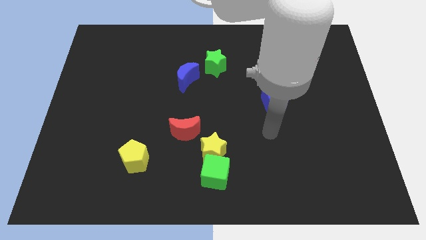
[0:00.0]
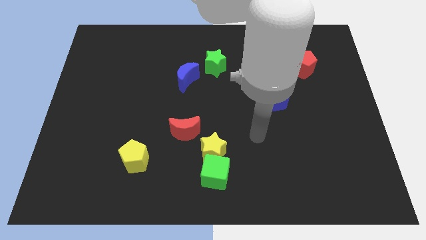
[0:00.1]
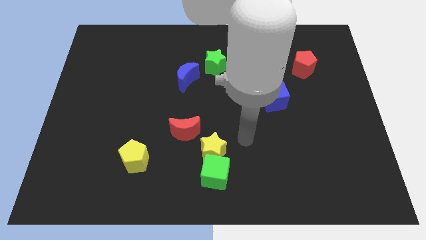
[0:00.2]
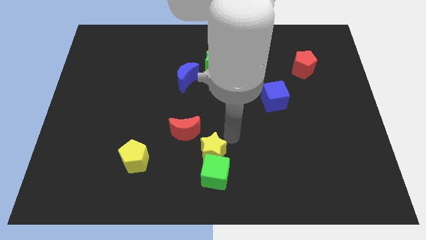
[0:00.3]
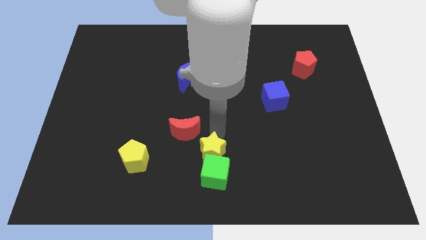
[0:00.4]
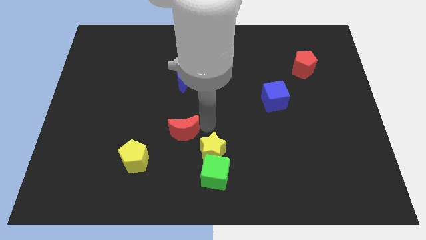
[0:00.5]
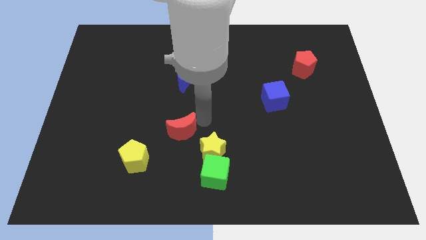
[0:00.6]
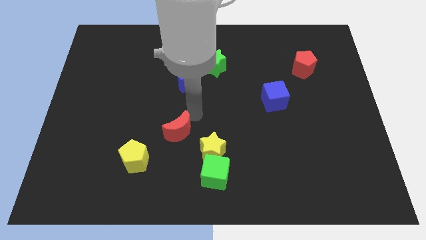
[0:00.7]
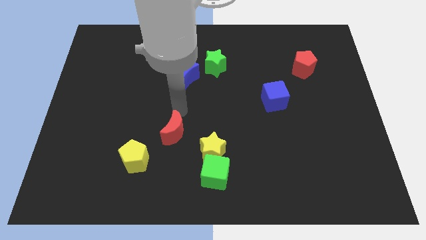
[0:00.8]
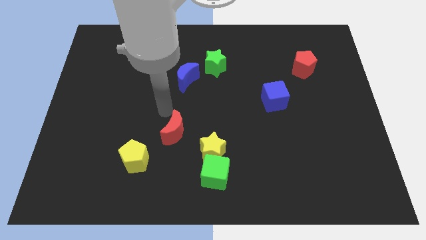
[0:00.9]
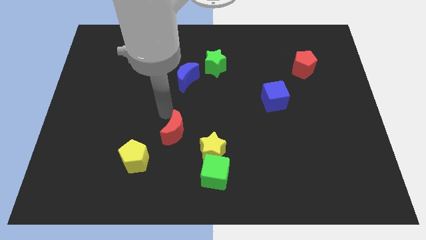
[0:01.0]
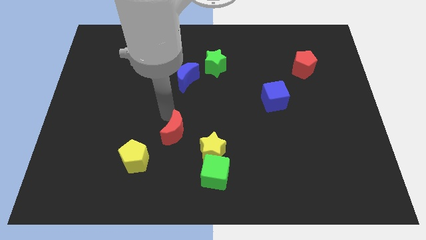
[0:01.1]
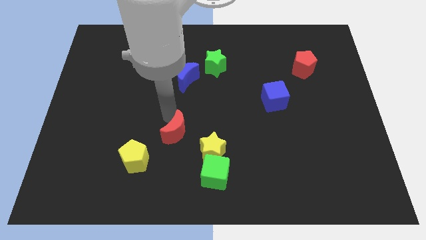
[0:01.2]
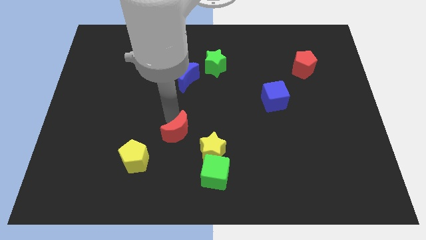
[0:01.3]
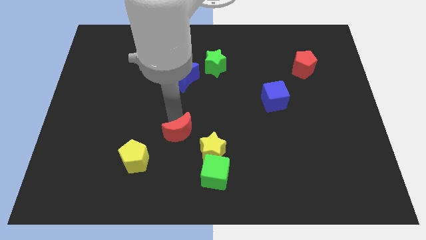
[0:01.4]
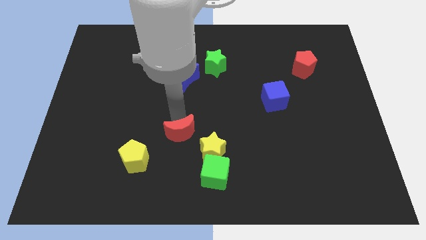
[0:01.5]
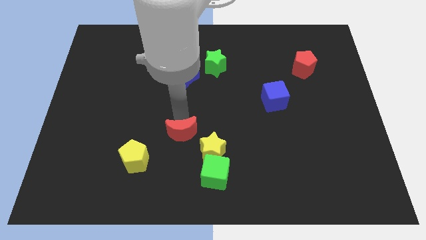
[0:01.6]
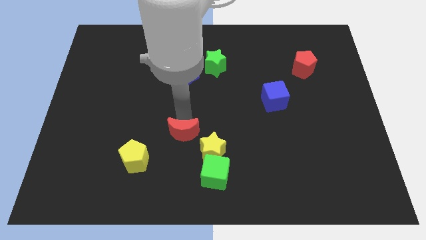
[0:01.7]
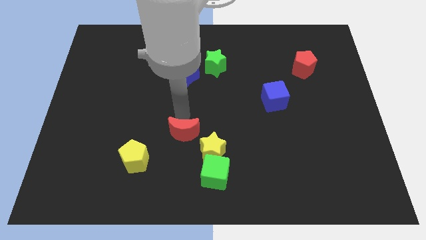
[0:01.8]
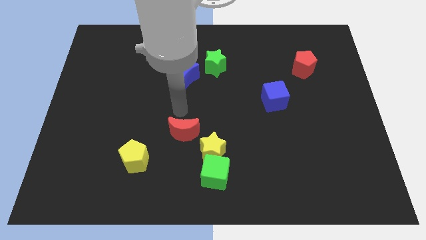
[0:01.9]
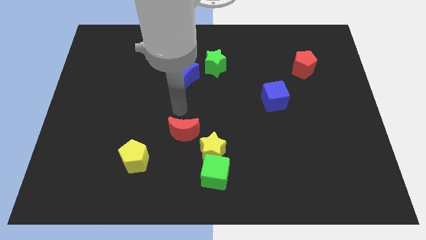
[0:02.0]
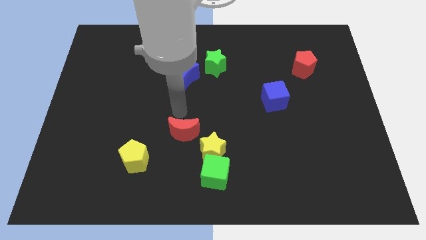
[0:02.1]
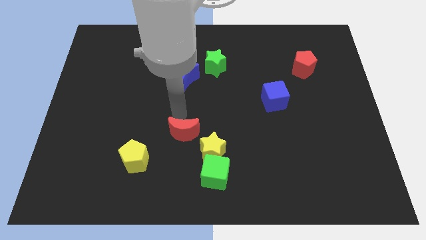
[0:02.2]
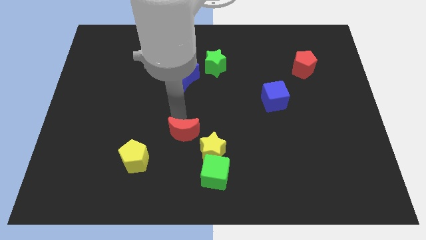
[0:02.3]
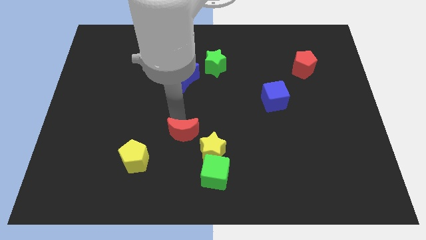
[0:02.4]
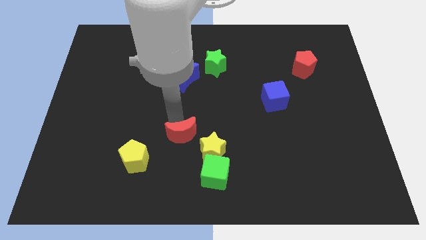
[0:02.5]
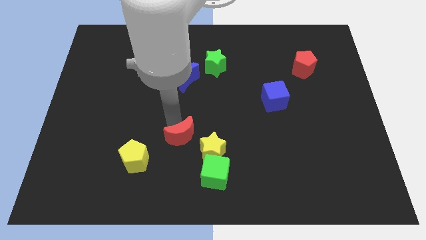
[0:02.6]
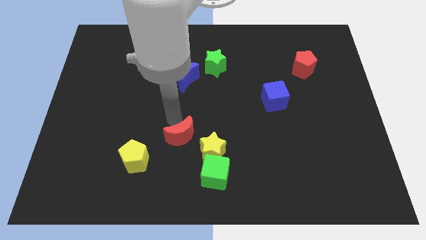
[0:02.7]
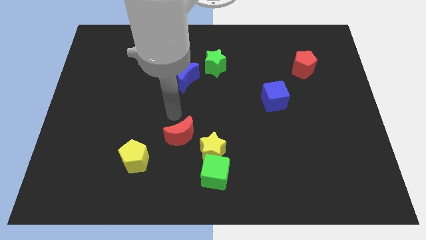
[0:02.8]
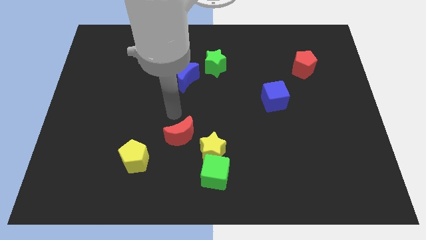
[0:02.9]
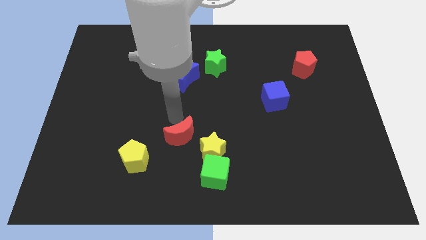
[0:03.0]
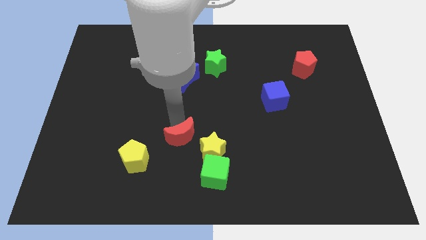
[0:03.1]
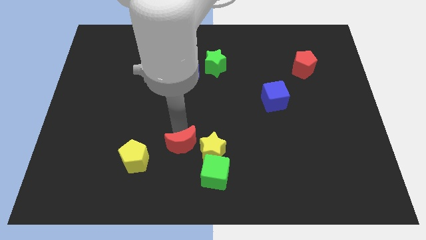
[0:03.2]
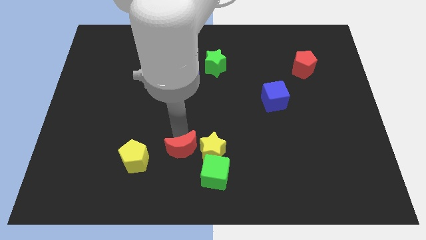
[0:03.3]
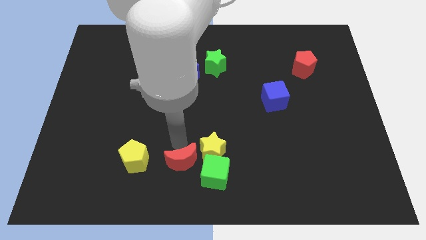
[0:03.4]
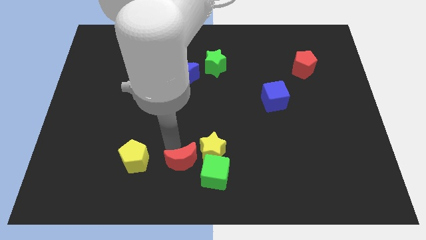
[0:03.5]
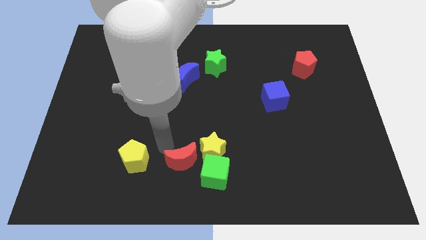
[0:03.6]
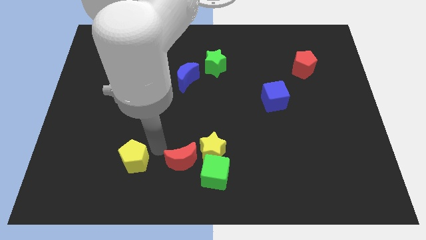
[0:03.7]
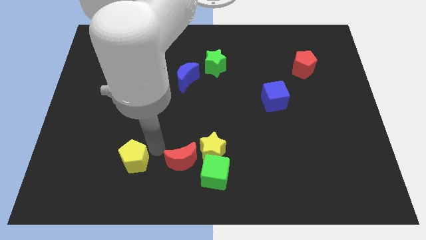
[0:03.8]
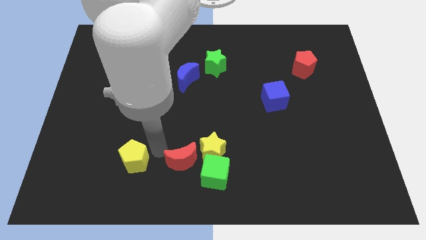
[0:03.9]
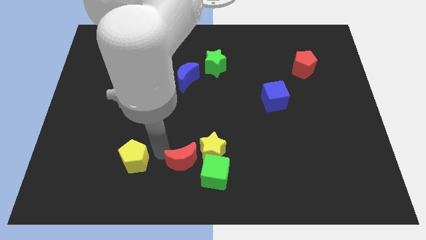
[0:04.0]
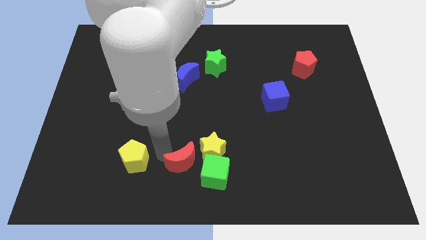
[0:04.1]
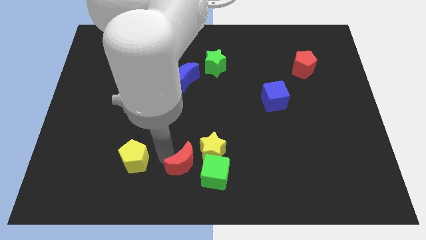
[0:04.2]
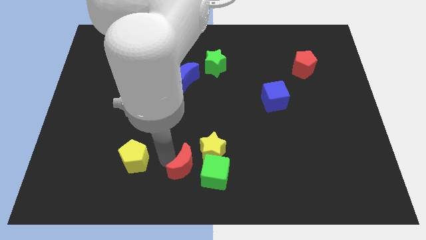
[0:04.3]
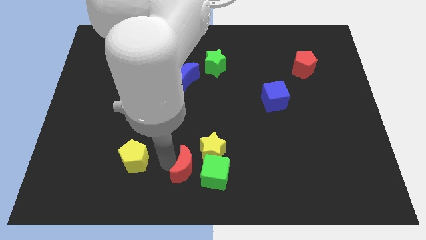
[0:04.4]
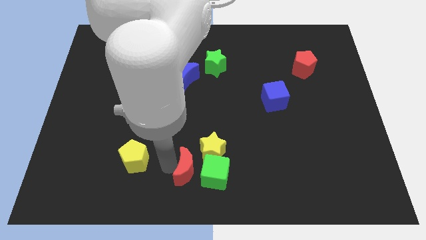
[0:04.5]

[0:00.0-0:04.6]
put the red moon towards the green cube

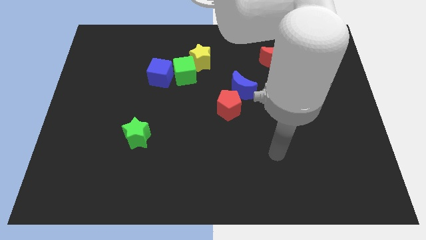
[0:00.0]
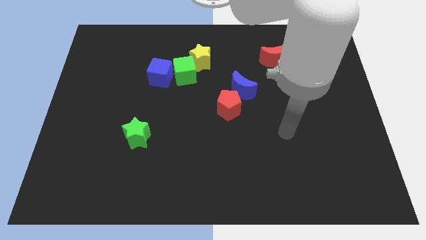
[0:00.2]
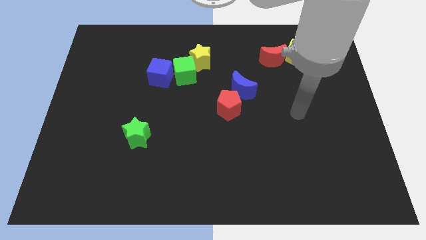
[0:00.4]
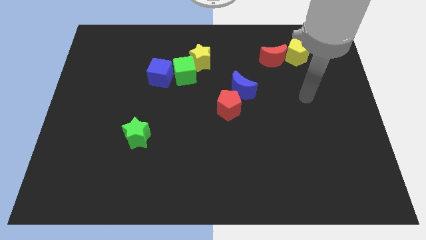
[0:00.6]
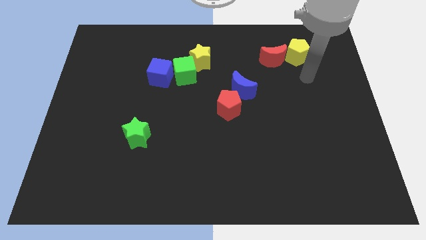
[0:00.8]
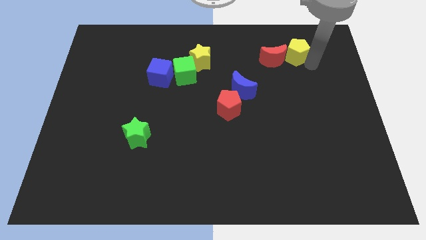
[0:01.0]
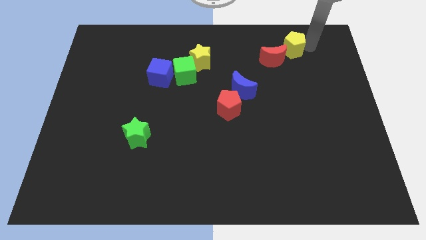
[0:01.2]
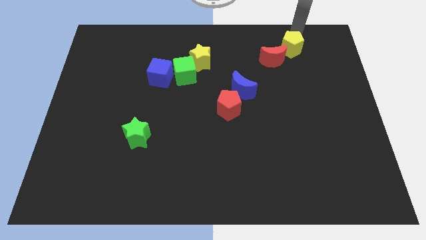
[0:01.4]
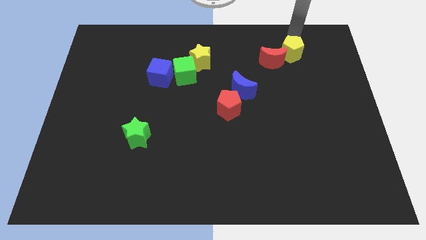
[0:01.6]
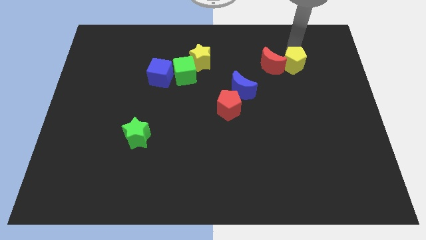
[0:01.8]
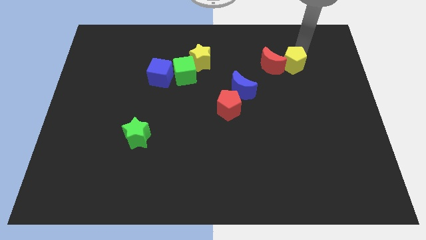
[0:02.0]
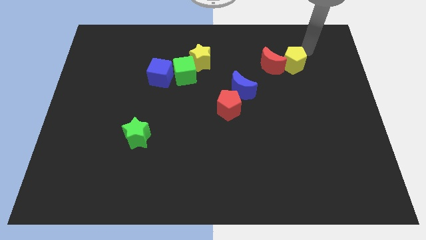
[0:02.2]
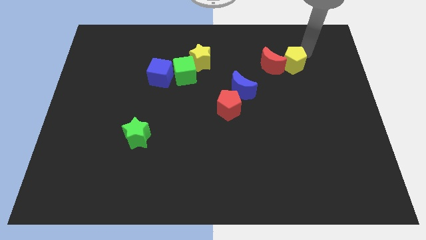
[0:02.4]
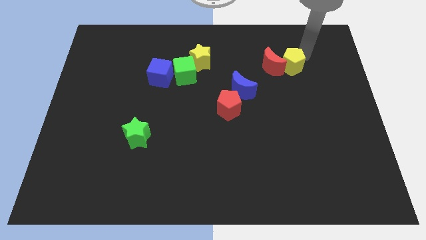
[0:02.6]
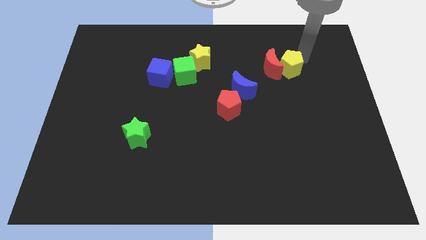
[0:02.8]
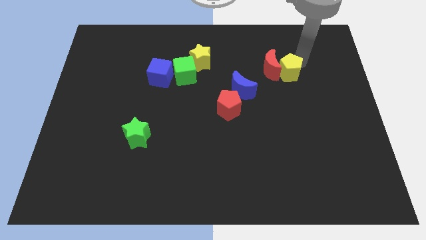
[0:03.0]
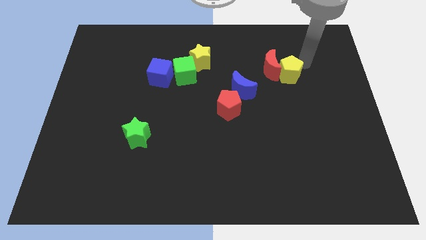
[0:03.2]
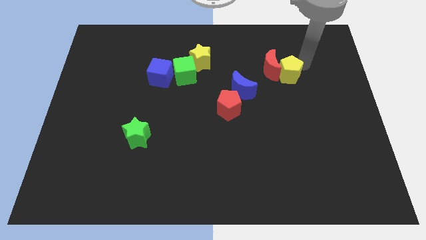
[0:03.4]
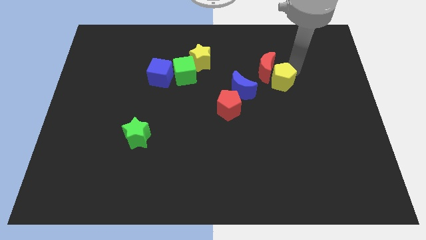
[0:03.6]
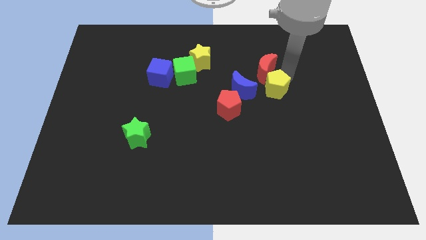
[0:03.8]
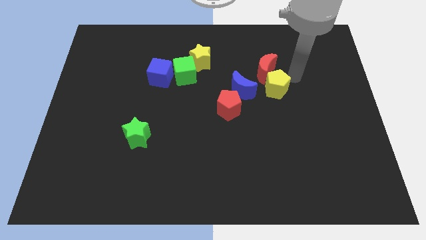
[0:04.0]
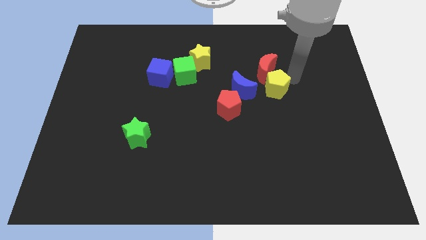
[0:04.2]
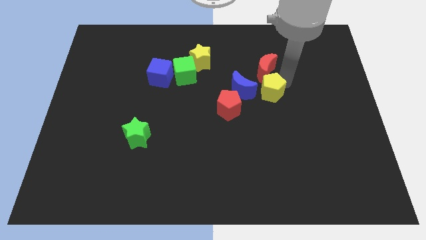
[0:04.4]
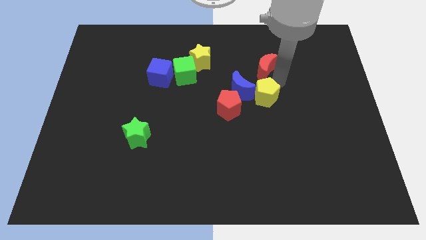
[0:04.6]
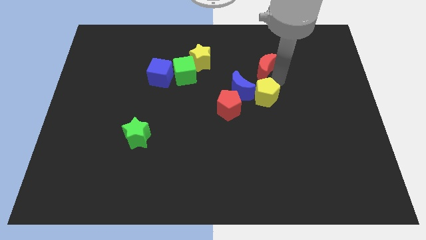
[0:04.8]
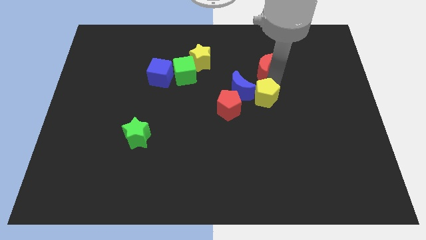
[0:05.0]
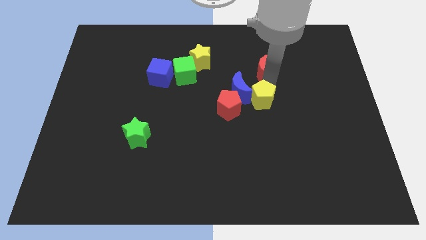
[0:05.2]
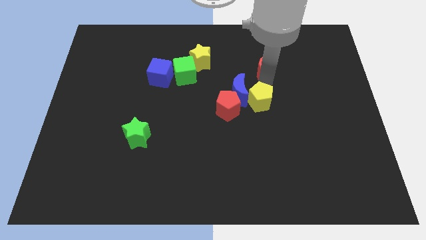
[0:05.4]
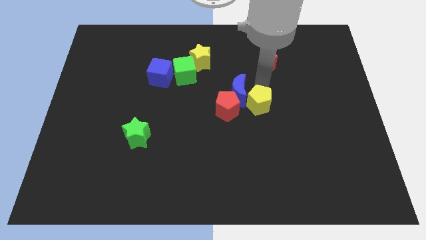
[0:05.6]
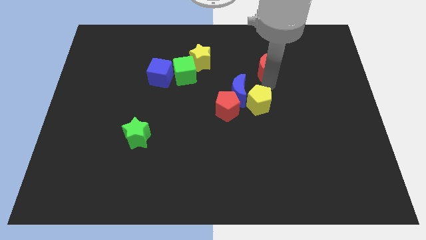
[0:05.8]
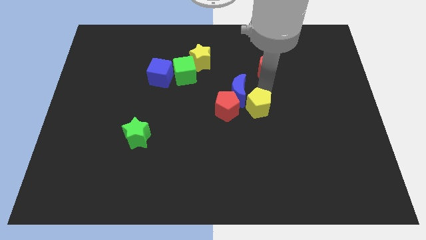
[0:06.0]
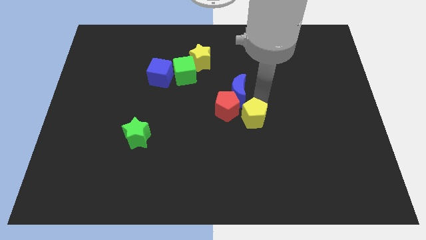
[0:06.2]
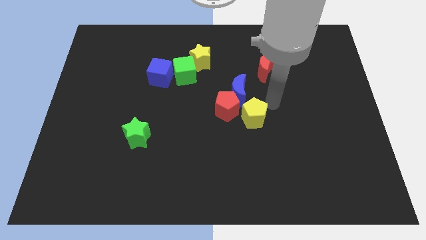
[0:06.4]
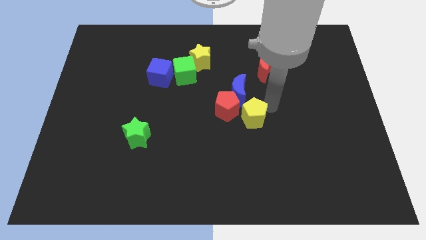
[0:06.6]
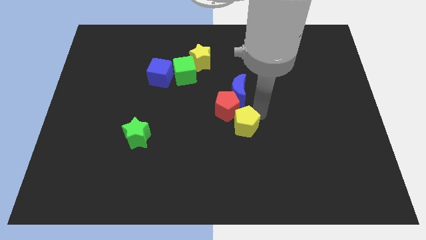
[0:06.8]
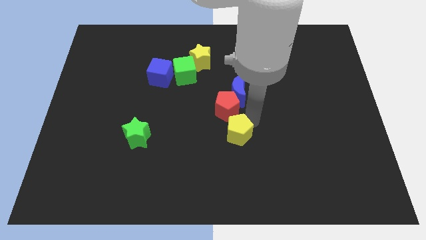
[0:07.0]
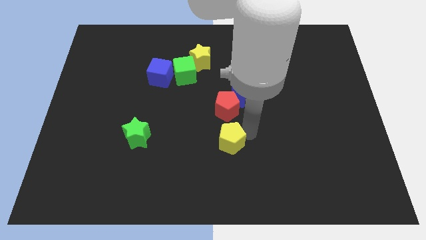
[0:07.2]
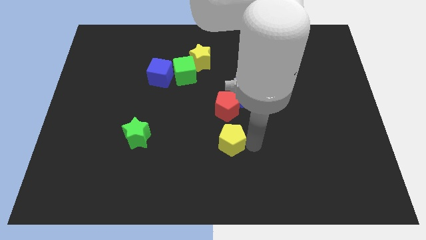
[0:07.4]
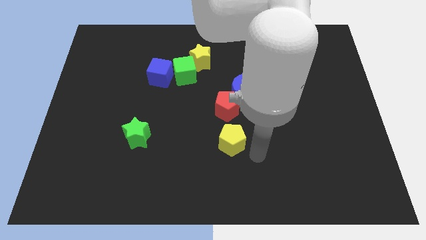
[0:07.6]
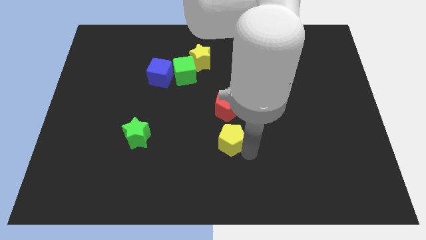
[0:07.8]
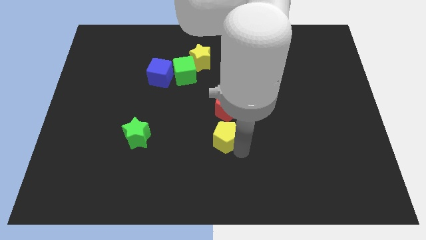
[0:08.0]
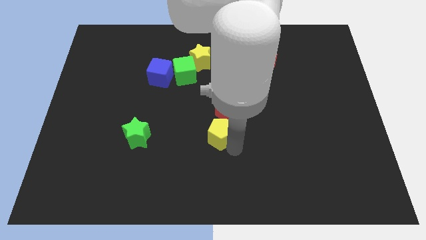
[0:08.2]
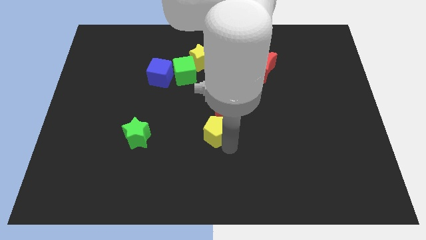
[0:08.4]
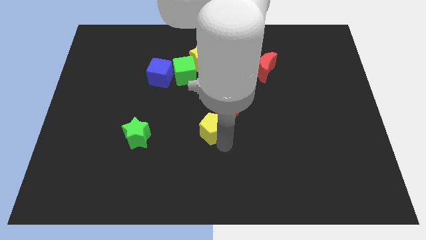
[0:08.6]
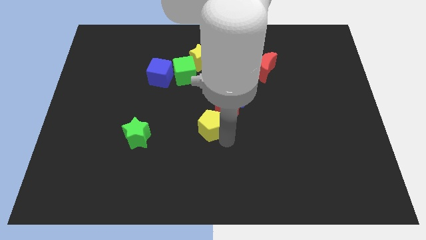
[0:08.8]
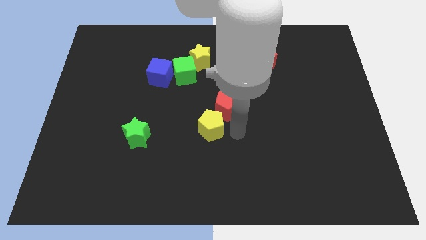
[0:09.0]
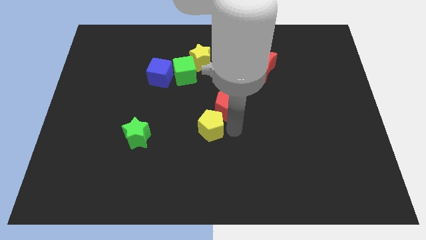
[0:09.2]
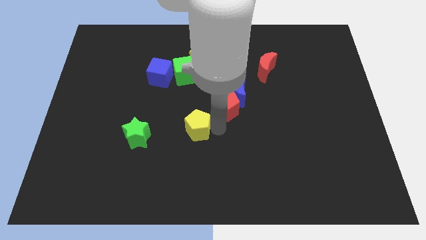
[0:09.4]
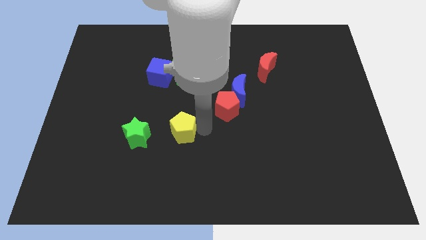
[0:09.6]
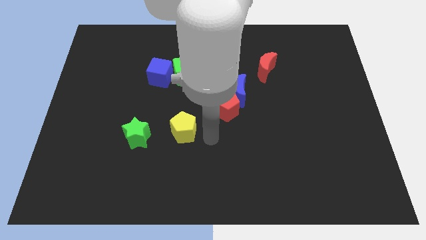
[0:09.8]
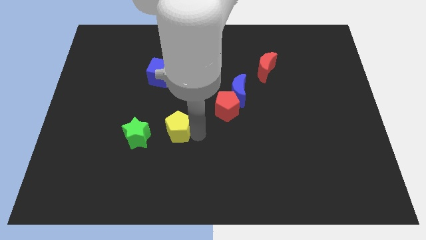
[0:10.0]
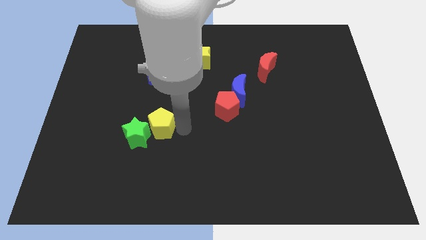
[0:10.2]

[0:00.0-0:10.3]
move the yellow pentagon next to the green star
